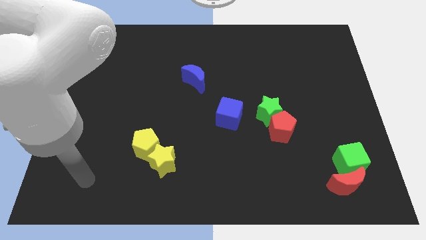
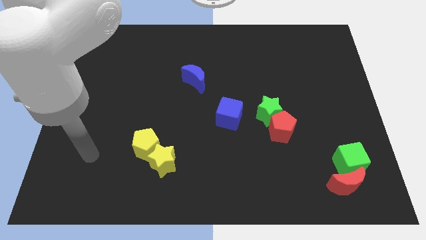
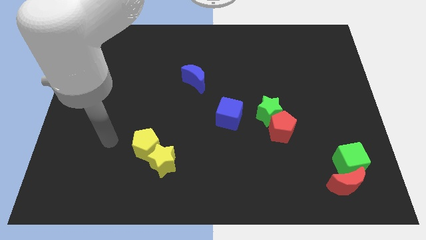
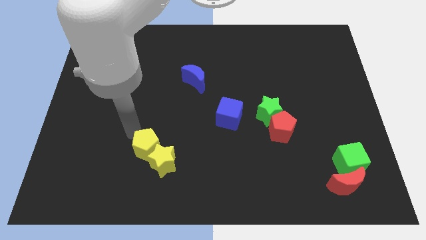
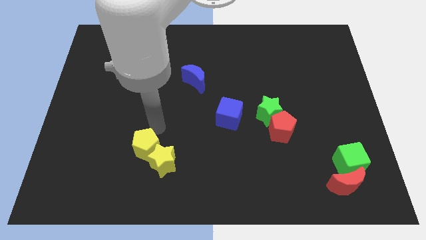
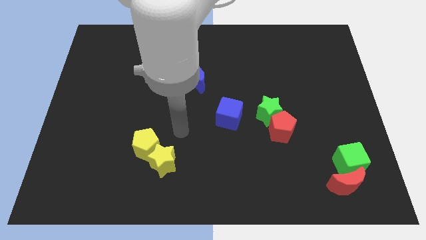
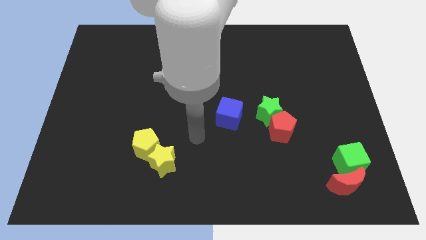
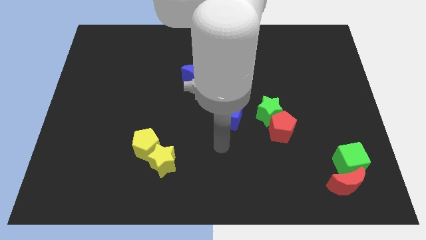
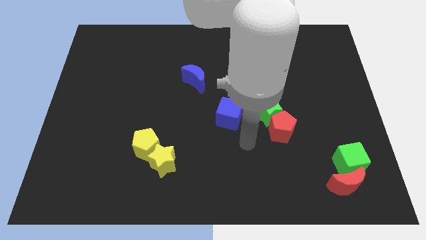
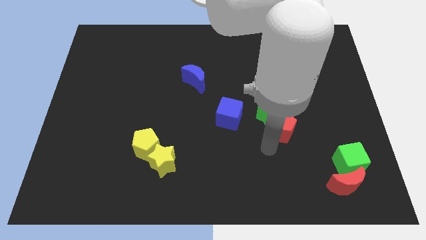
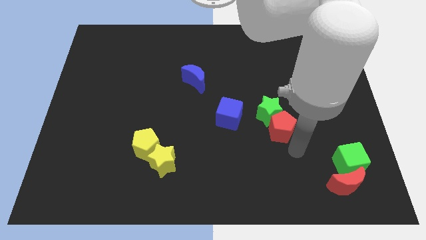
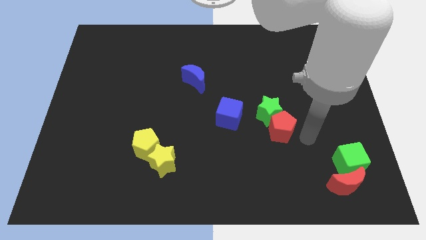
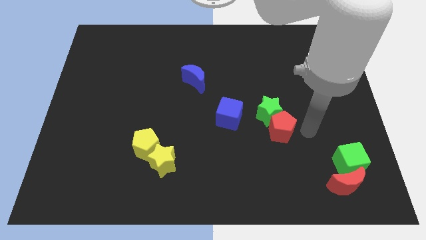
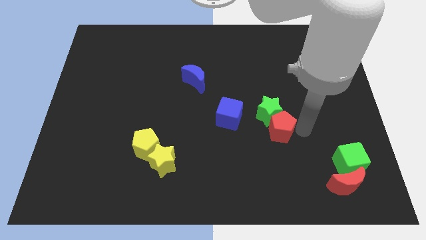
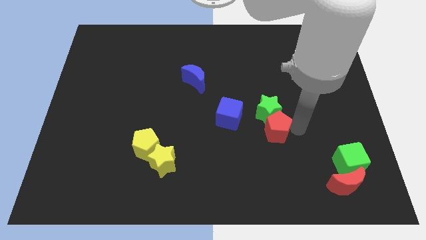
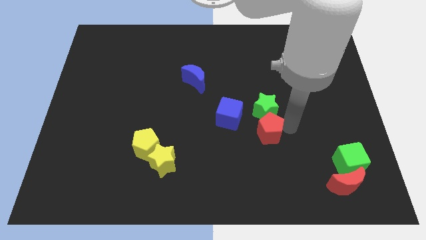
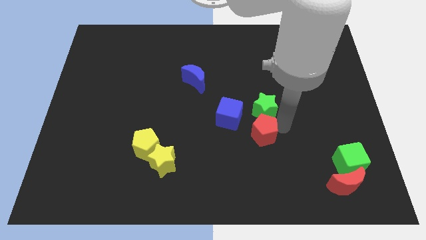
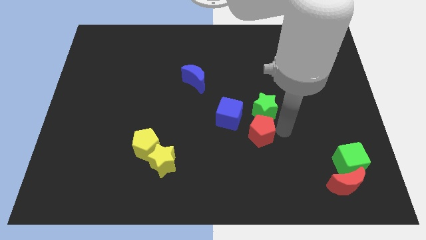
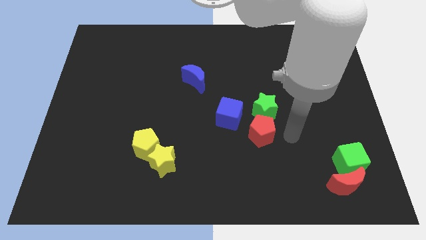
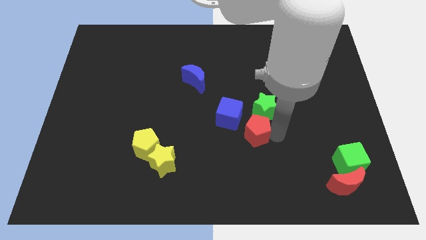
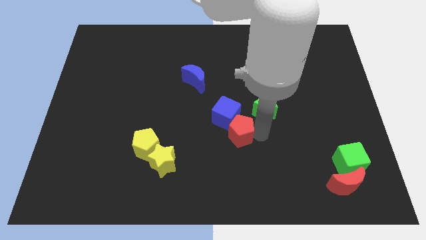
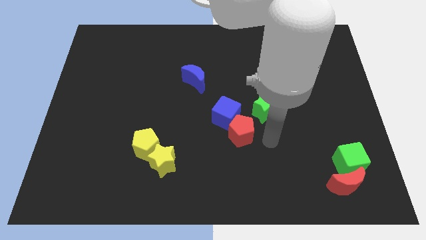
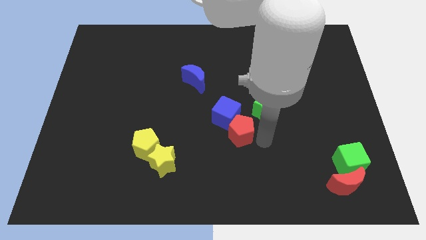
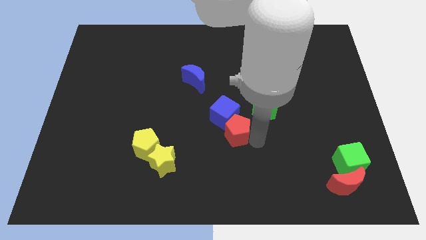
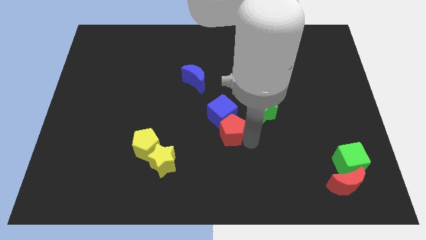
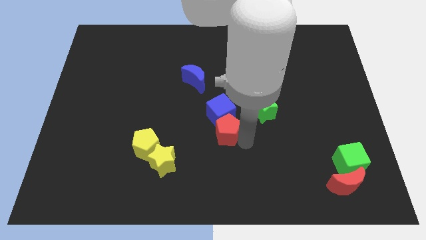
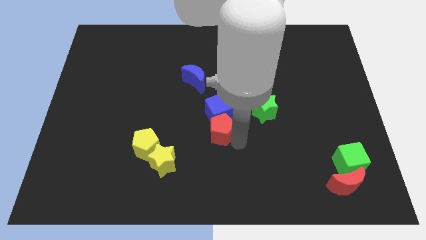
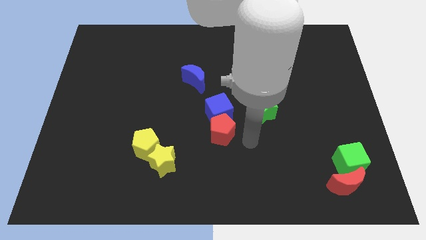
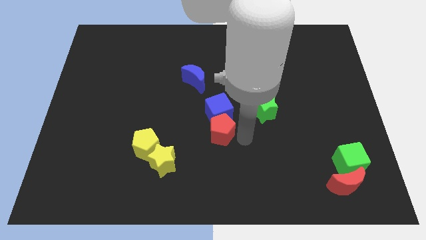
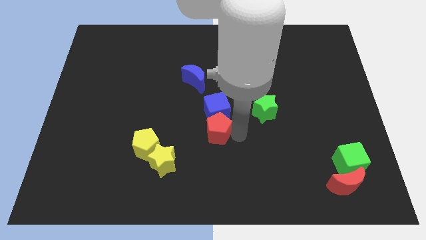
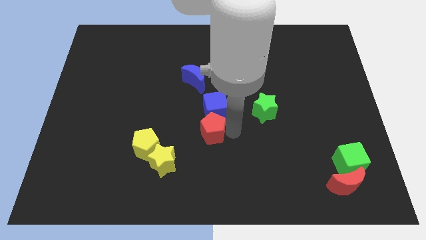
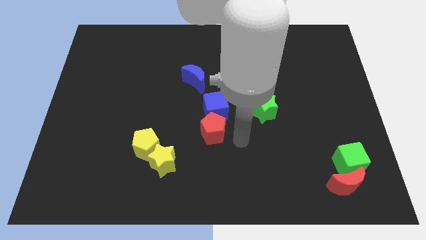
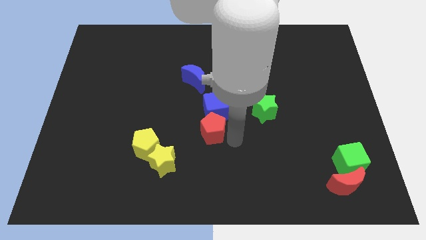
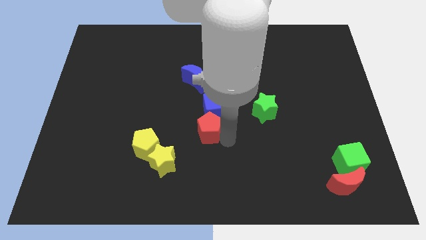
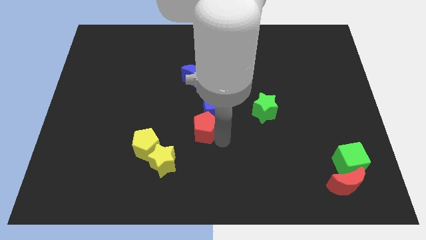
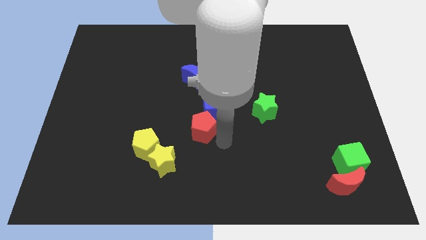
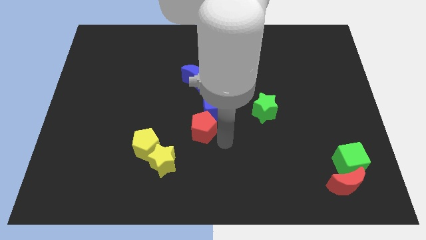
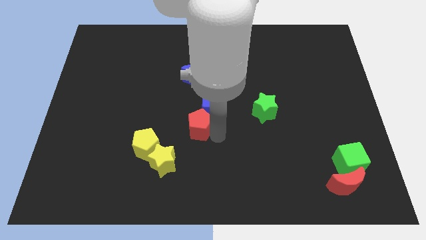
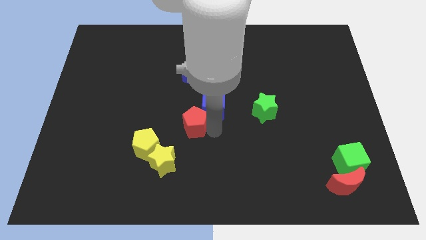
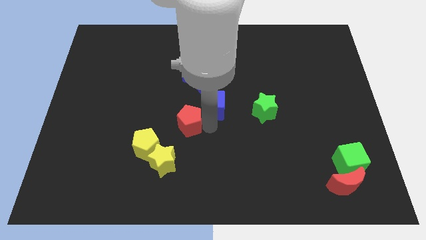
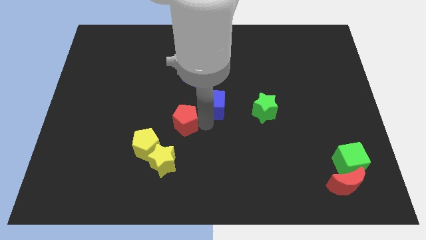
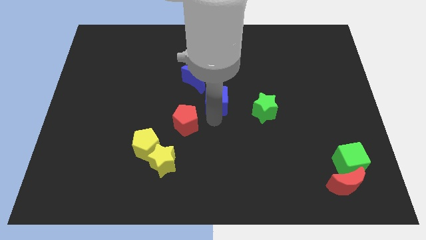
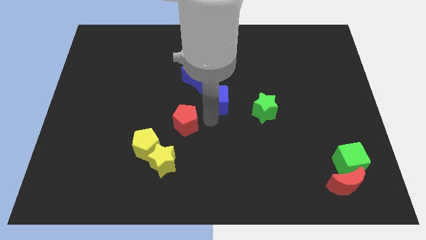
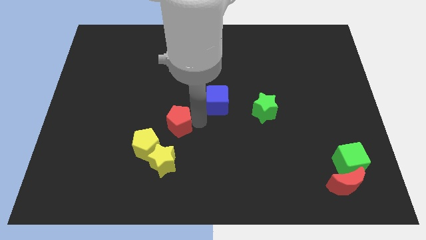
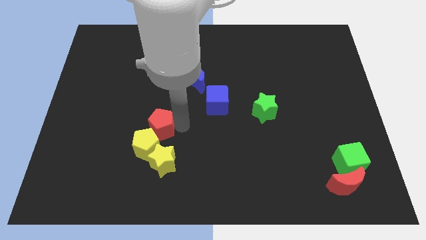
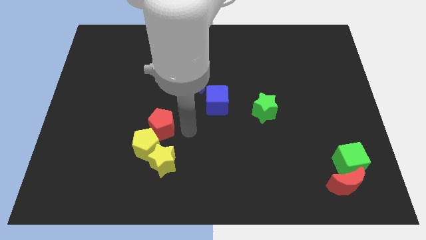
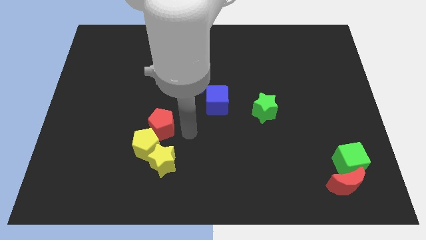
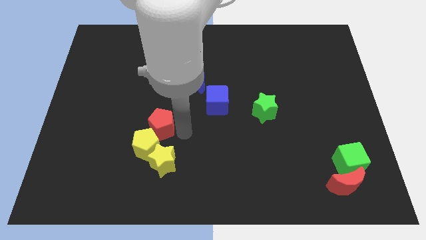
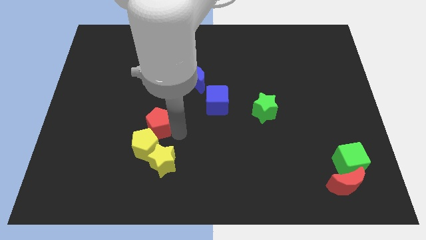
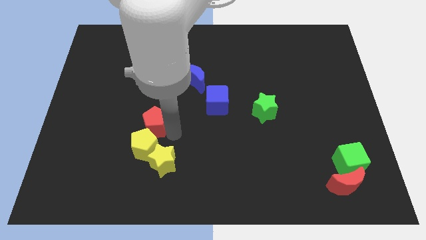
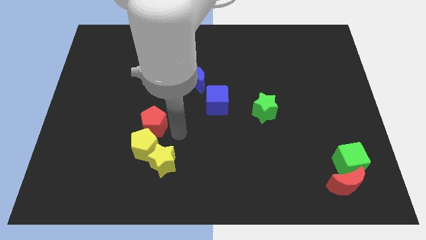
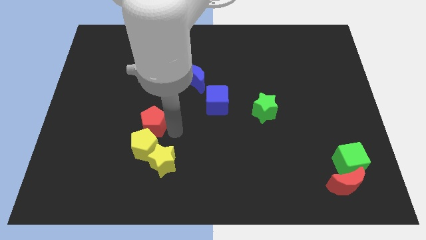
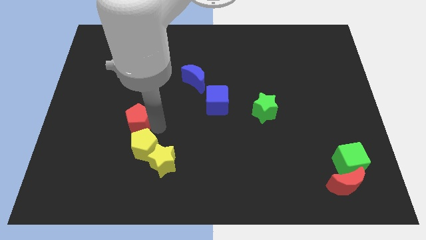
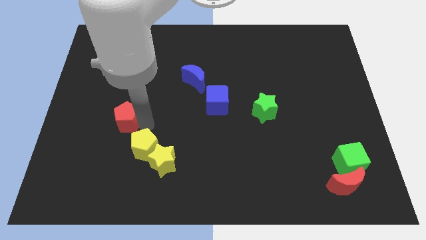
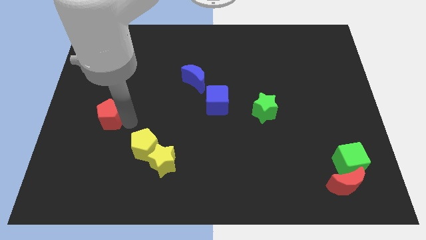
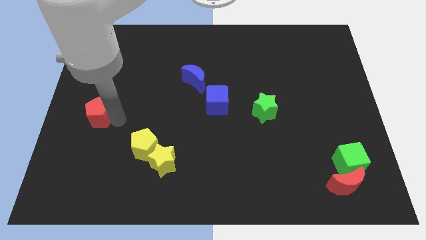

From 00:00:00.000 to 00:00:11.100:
slide the red pentagon to the center left

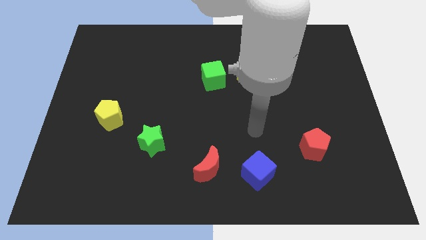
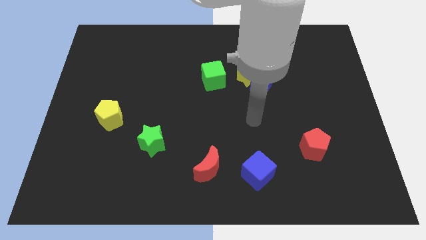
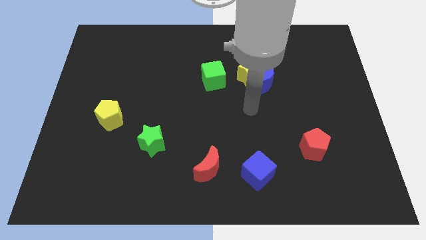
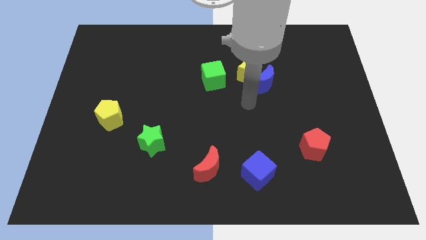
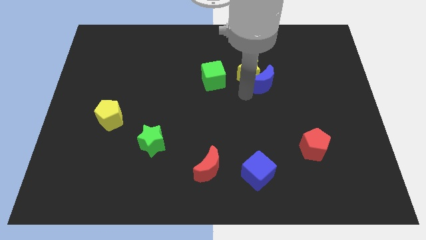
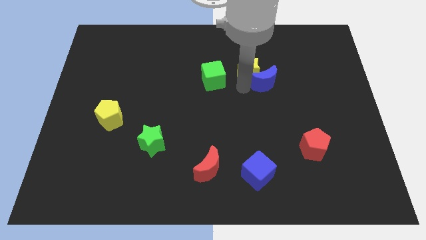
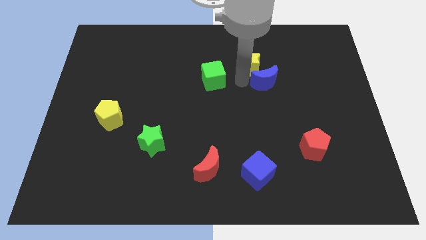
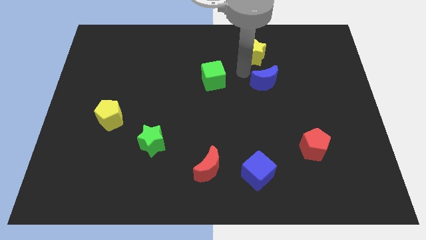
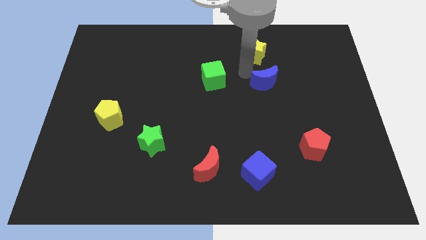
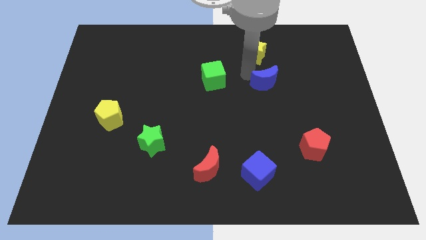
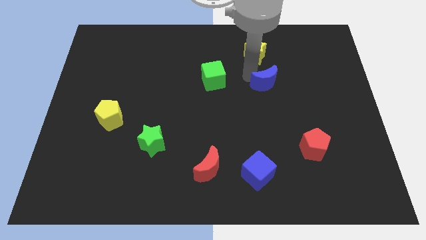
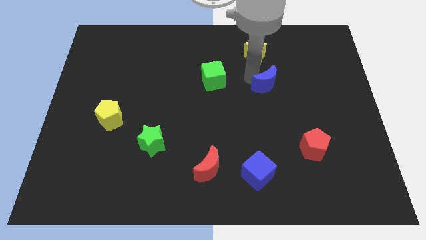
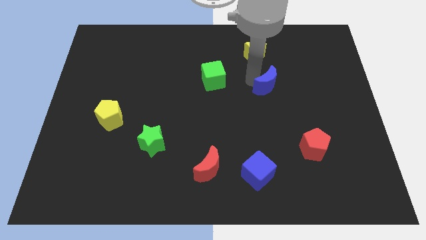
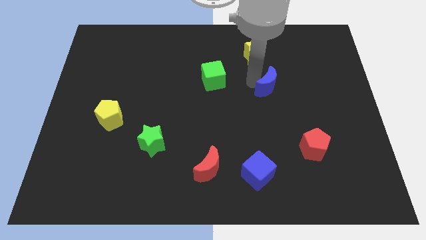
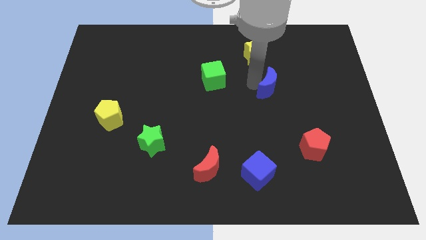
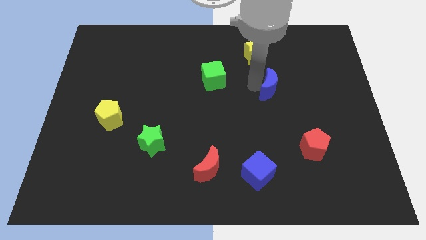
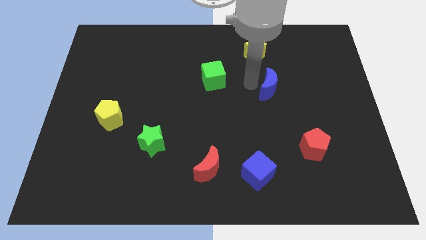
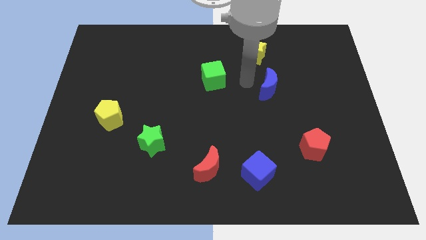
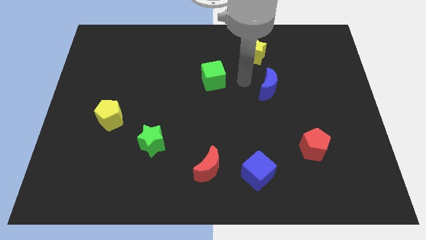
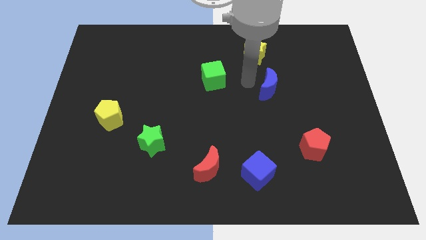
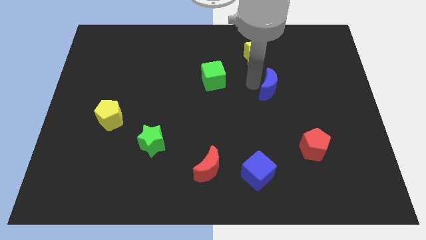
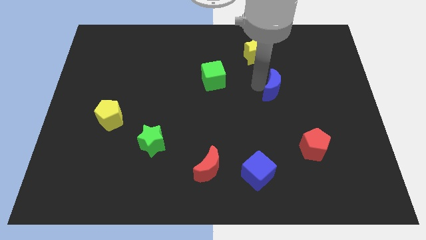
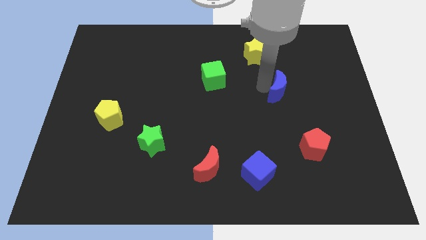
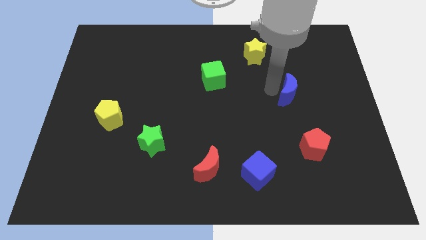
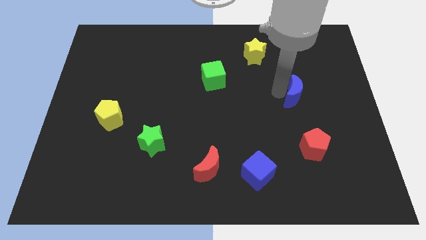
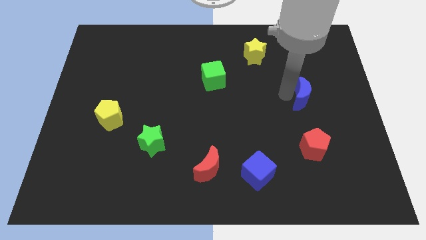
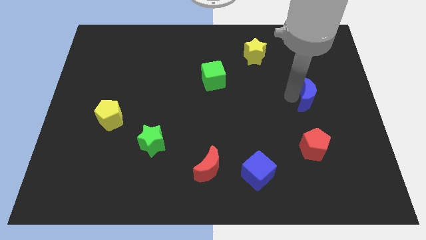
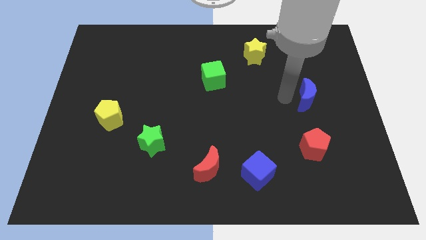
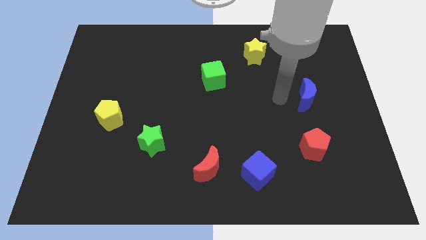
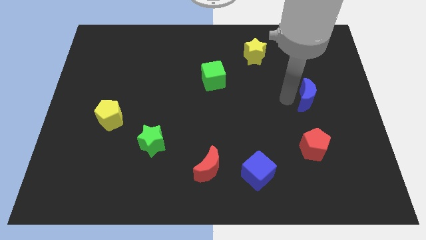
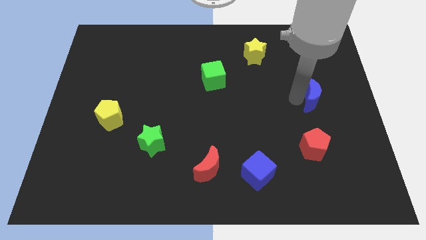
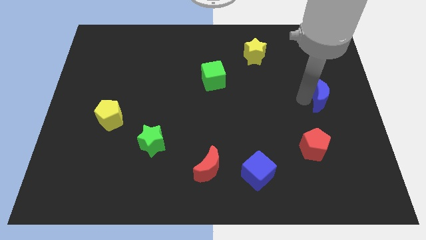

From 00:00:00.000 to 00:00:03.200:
push the blue moon to the right side
